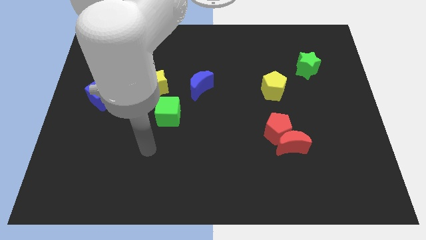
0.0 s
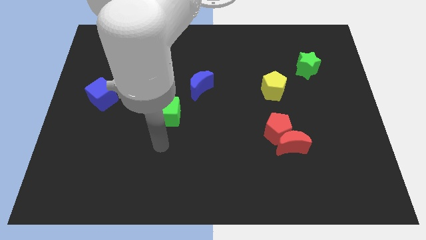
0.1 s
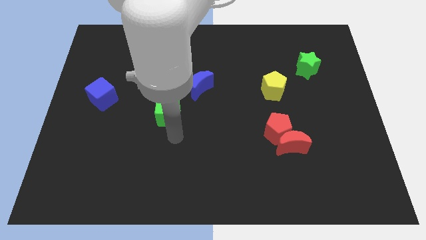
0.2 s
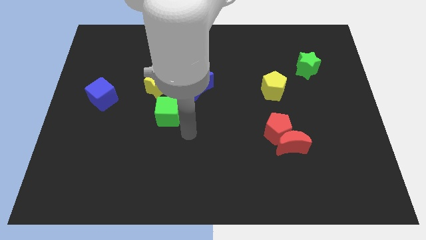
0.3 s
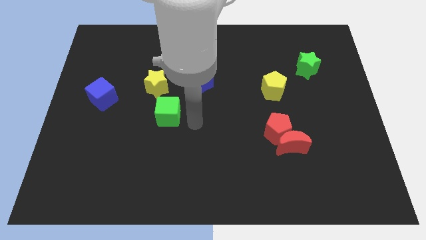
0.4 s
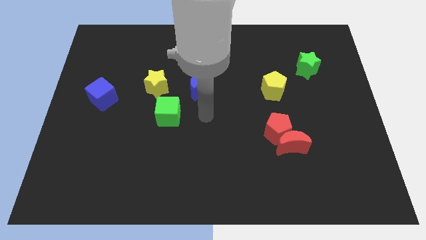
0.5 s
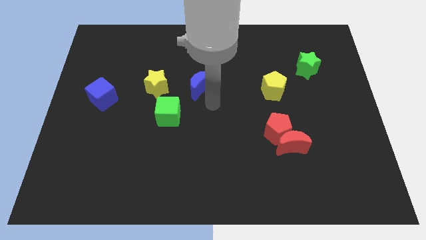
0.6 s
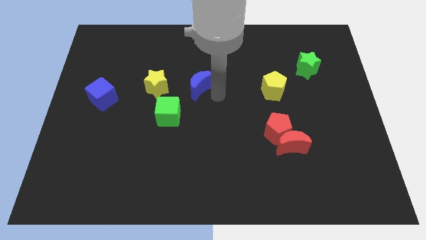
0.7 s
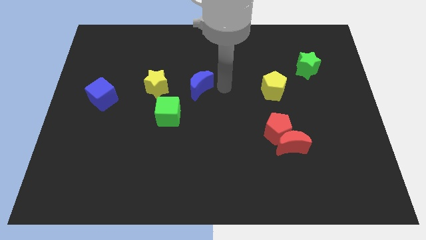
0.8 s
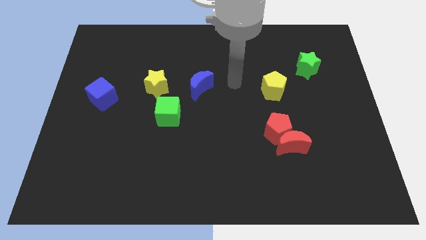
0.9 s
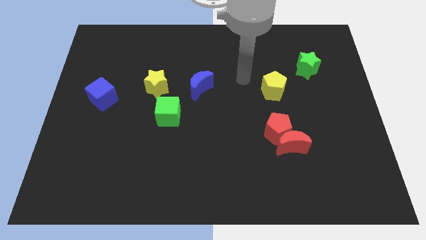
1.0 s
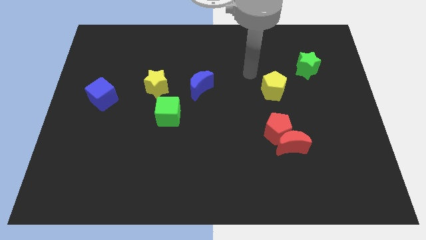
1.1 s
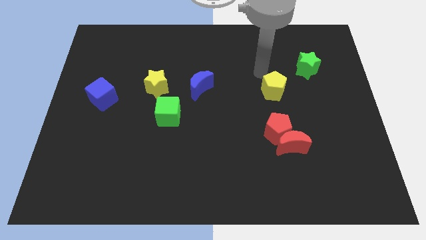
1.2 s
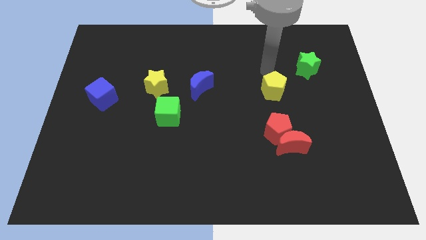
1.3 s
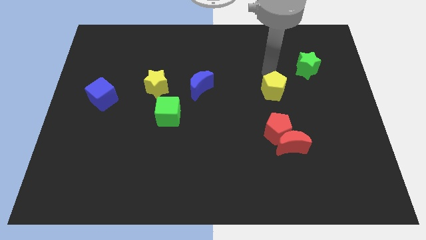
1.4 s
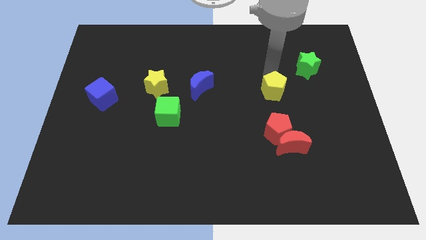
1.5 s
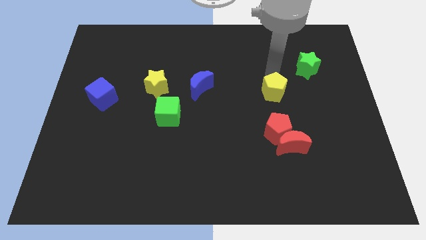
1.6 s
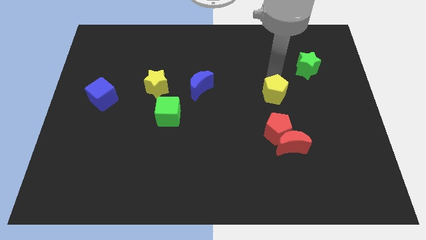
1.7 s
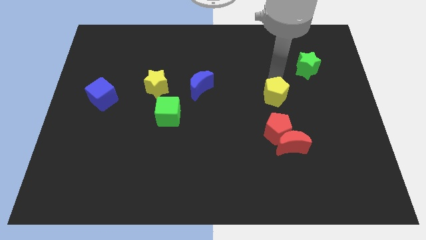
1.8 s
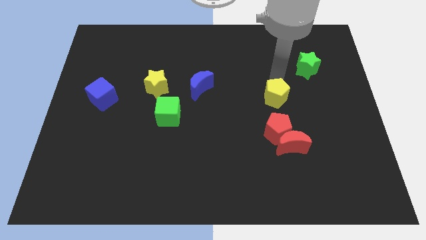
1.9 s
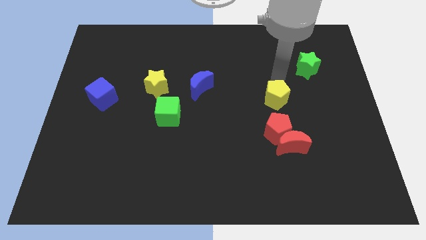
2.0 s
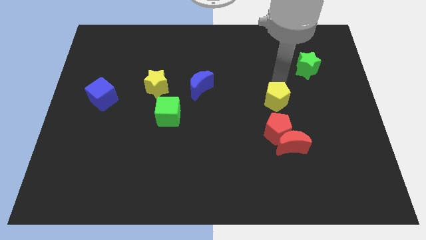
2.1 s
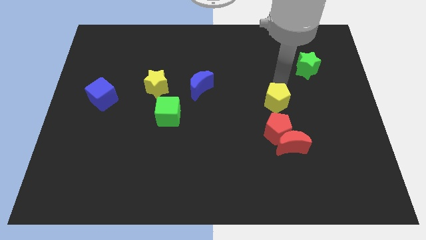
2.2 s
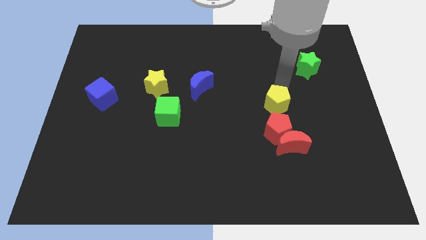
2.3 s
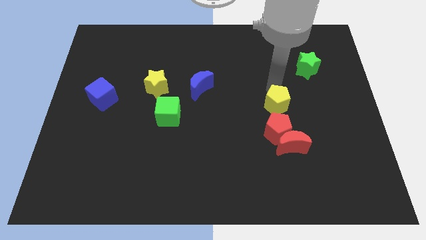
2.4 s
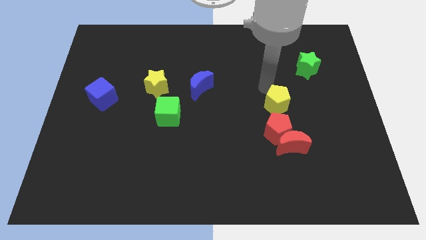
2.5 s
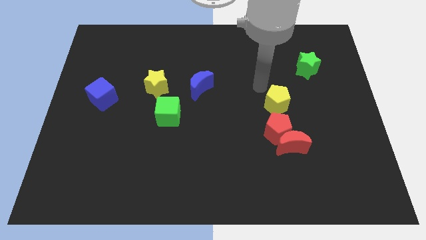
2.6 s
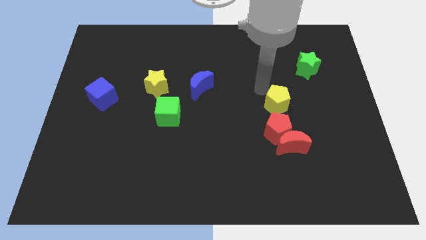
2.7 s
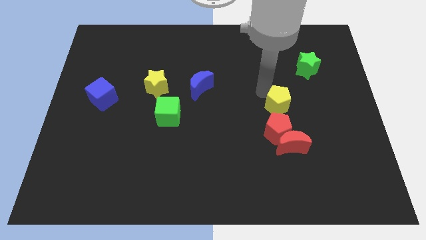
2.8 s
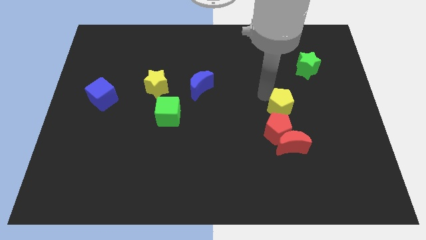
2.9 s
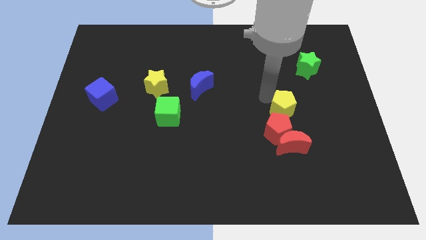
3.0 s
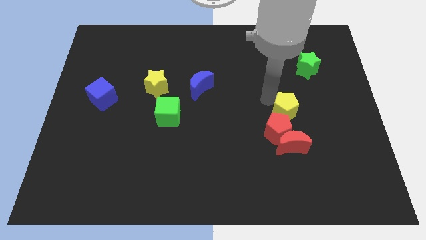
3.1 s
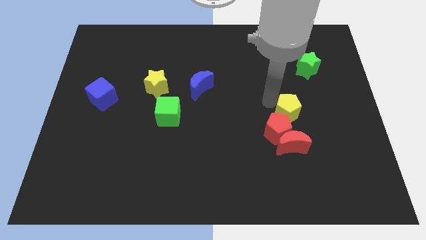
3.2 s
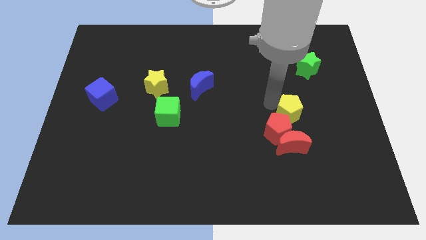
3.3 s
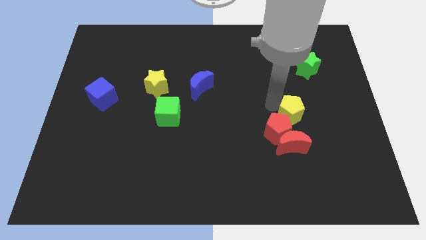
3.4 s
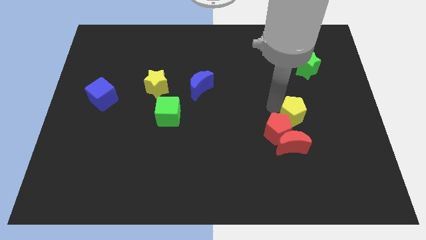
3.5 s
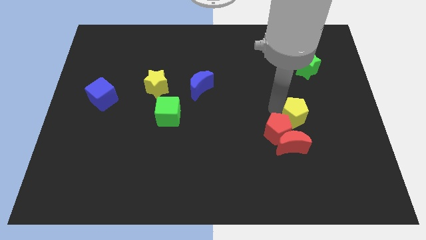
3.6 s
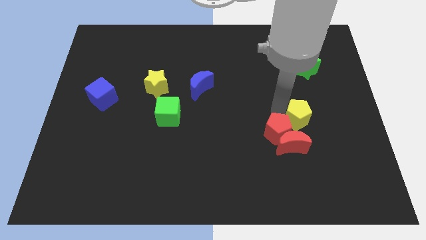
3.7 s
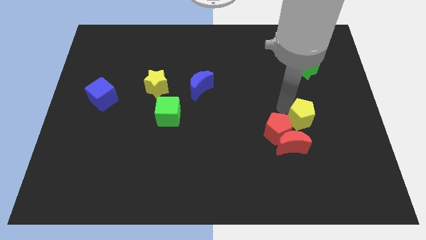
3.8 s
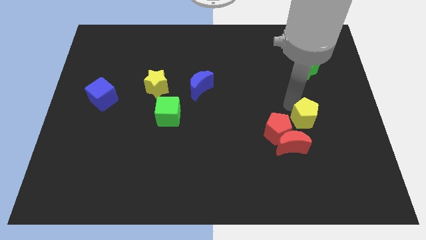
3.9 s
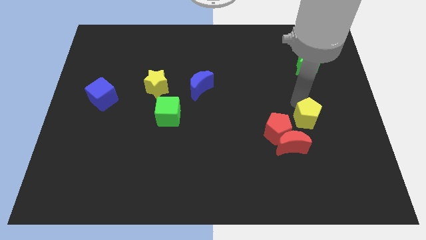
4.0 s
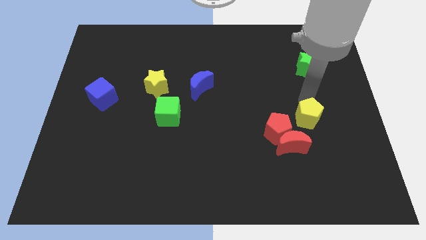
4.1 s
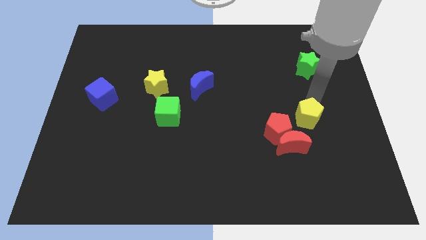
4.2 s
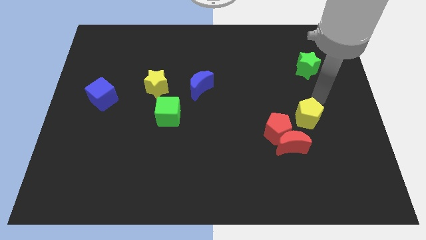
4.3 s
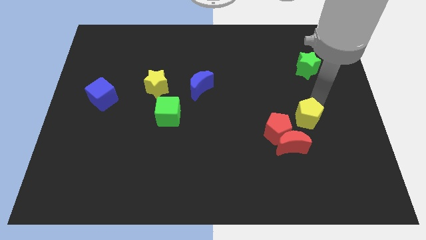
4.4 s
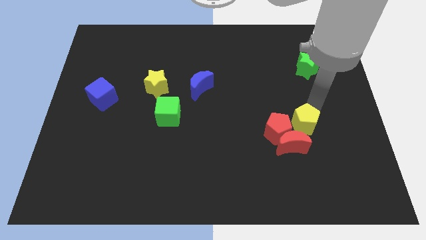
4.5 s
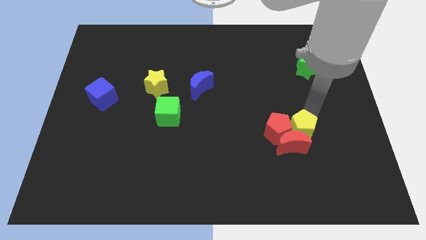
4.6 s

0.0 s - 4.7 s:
move the yellow pentagon close to the red moon

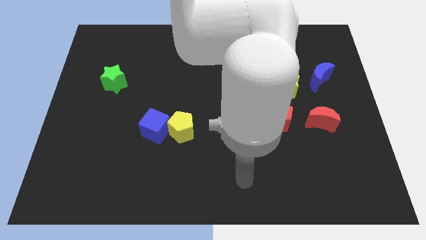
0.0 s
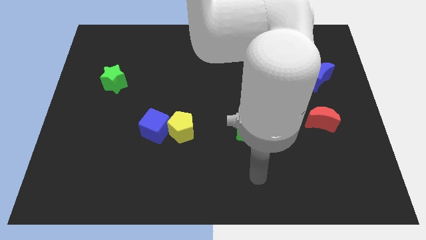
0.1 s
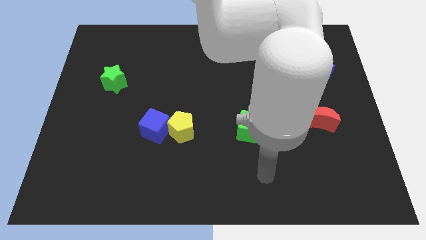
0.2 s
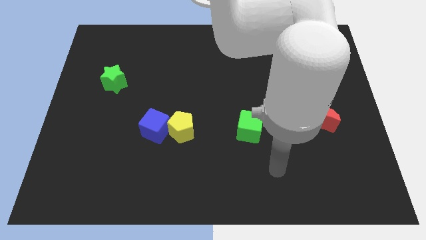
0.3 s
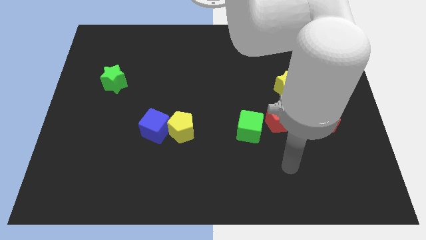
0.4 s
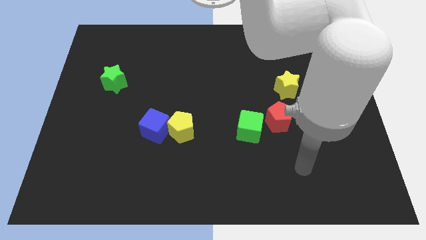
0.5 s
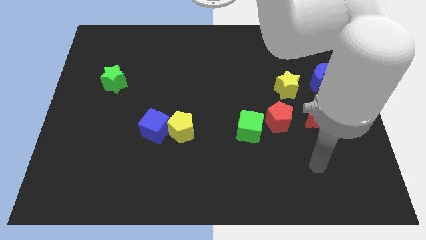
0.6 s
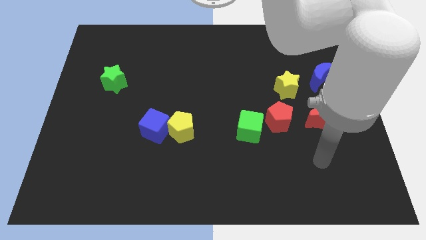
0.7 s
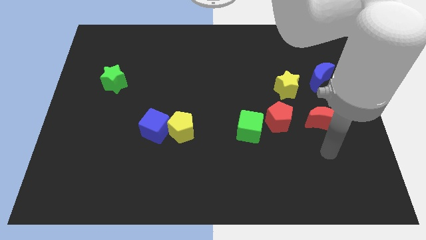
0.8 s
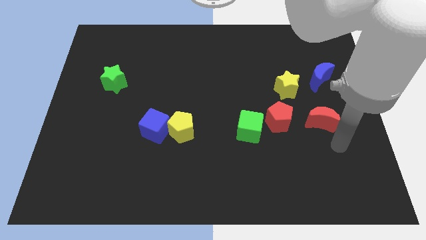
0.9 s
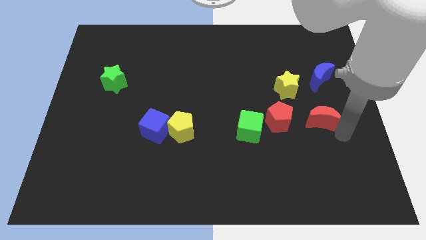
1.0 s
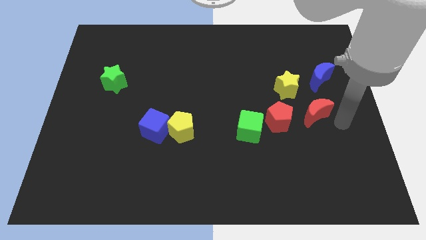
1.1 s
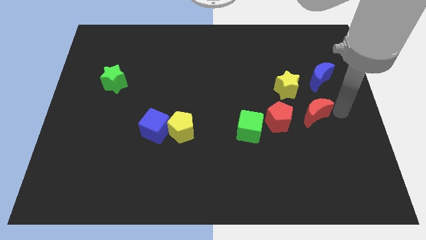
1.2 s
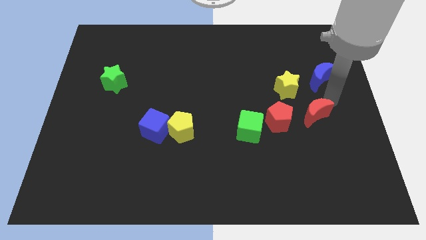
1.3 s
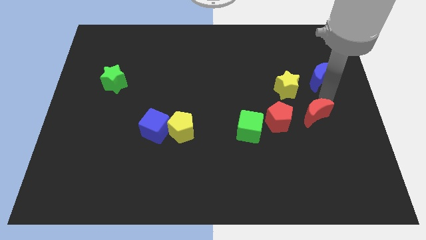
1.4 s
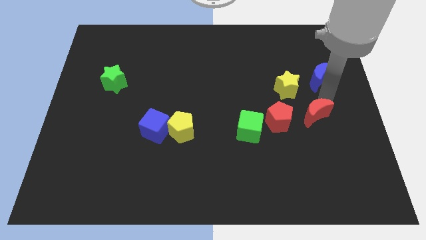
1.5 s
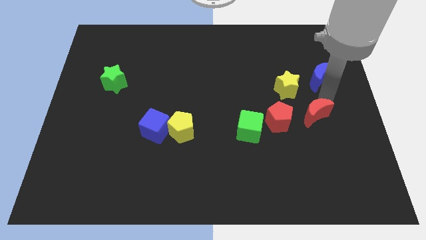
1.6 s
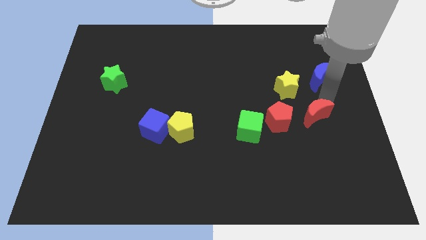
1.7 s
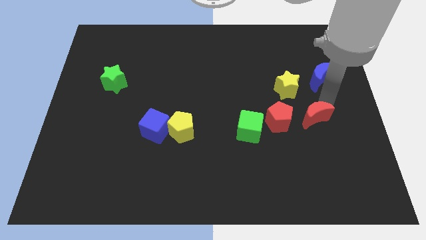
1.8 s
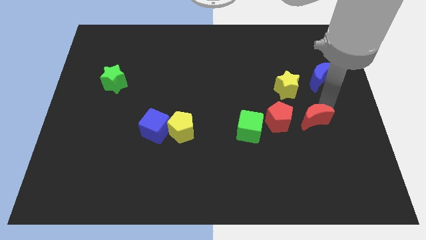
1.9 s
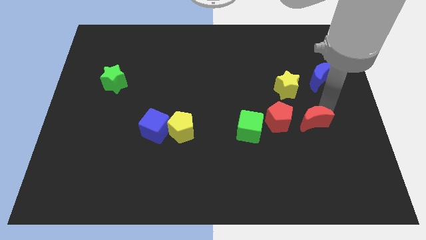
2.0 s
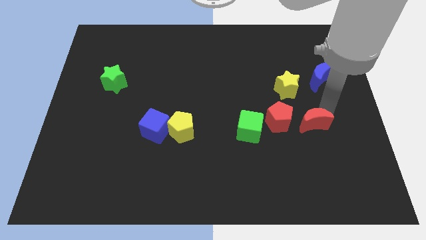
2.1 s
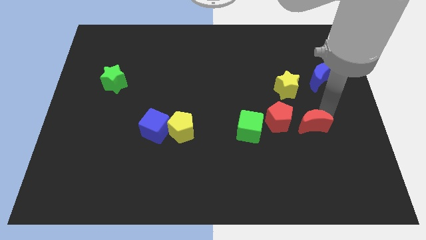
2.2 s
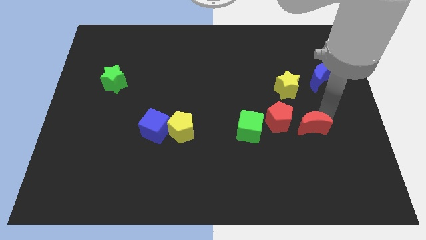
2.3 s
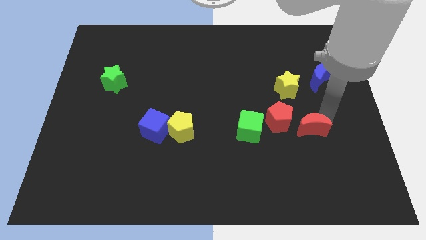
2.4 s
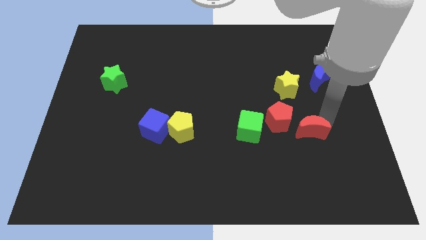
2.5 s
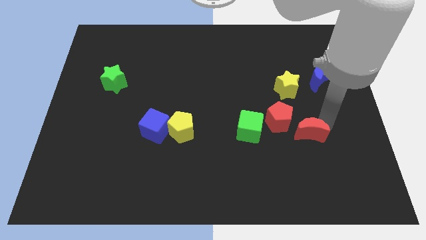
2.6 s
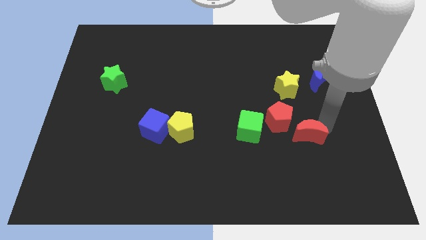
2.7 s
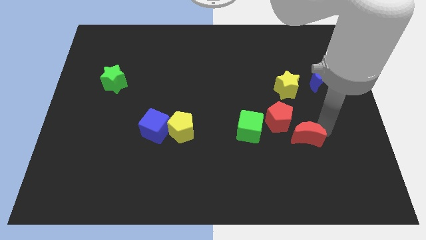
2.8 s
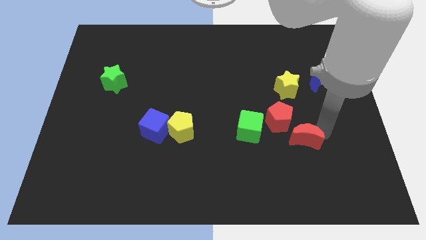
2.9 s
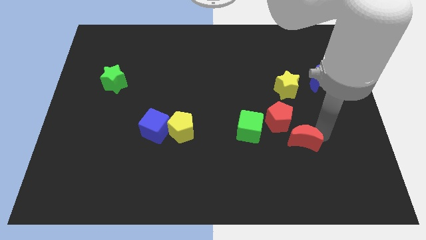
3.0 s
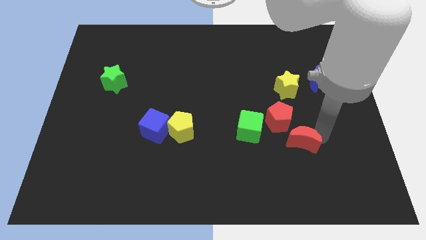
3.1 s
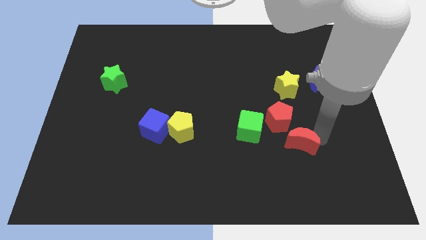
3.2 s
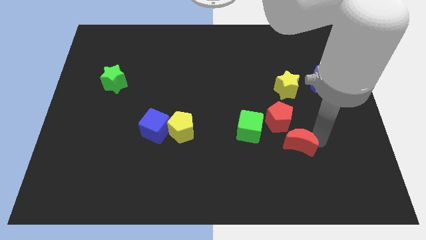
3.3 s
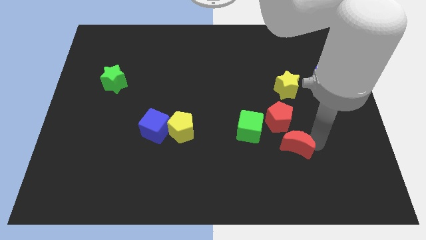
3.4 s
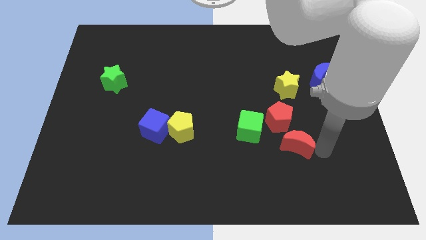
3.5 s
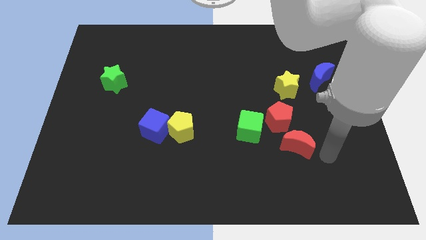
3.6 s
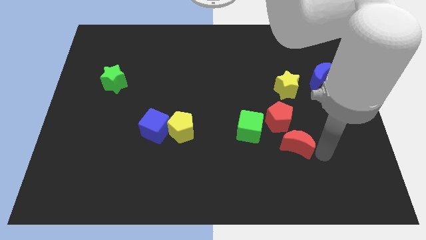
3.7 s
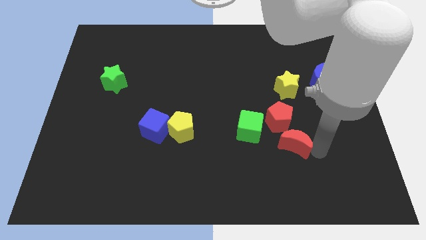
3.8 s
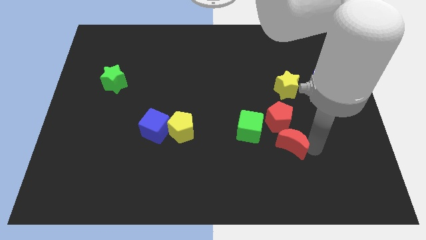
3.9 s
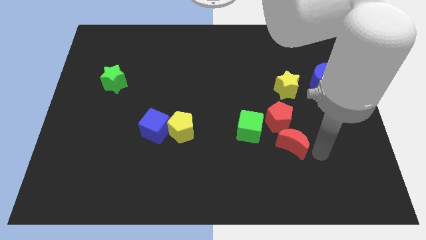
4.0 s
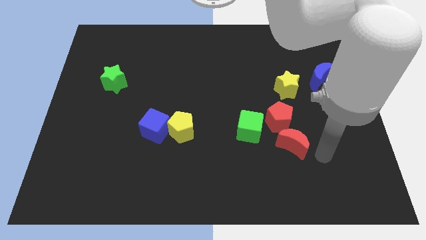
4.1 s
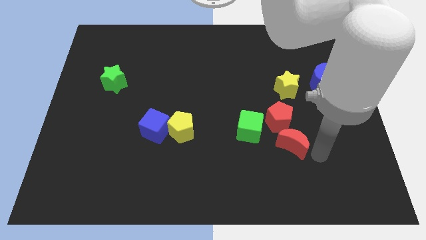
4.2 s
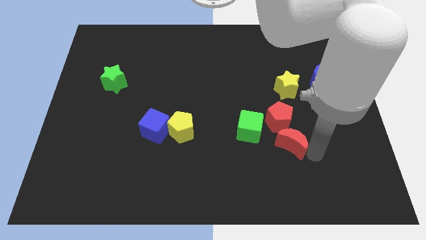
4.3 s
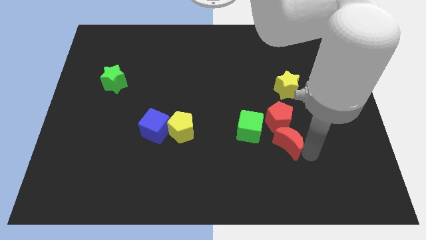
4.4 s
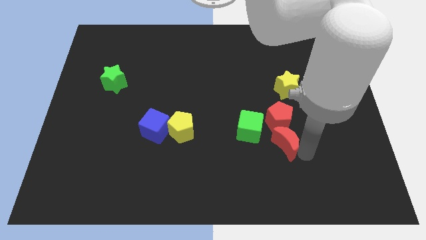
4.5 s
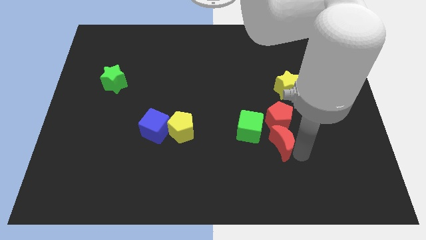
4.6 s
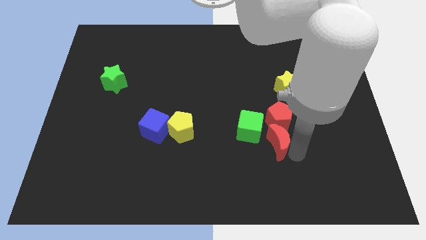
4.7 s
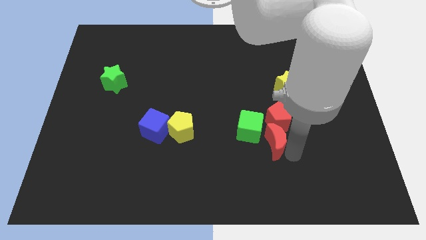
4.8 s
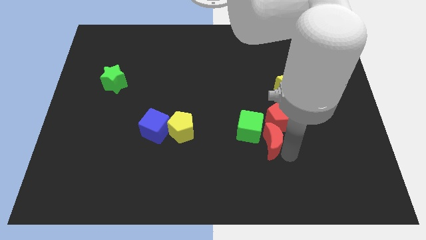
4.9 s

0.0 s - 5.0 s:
move the red moon close to the green cube
